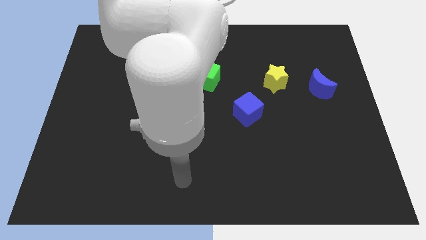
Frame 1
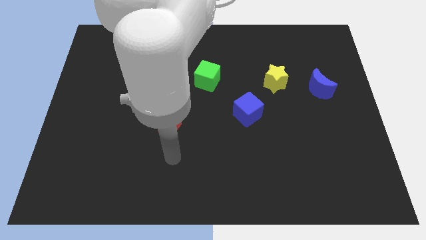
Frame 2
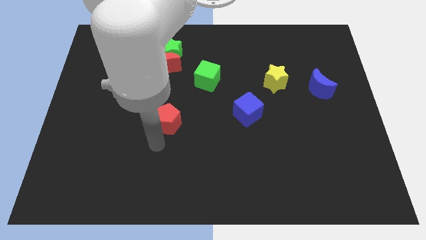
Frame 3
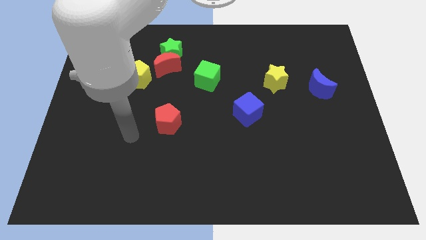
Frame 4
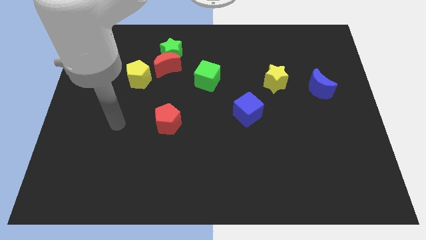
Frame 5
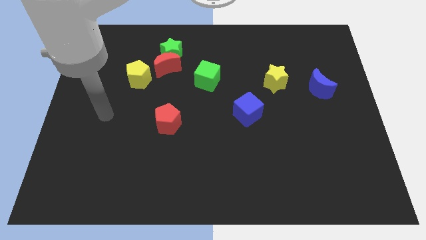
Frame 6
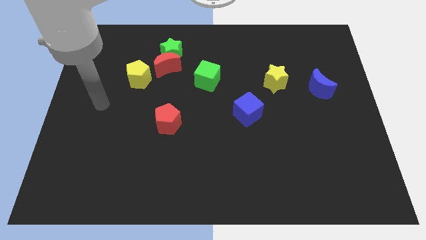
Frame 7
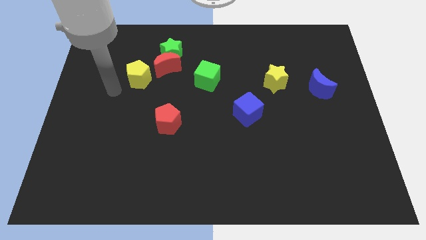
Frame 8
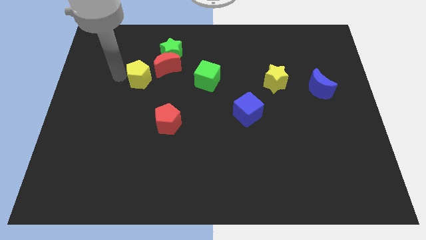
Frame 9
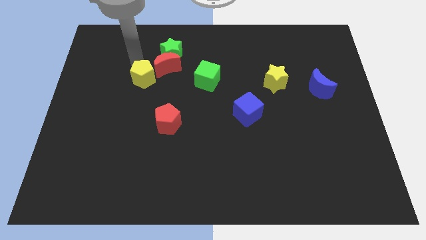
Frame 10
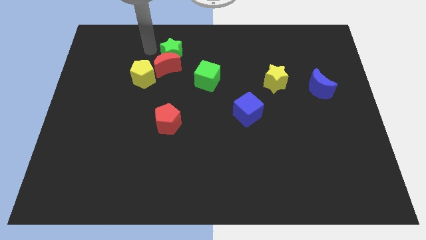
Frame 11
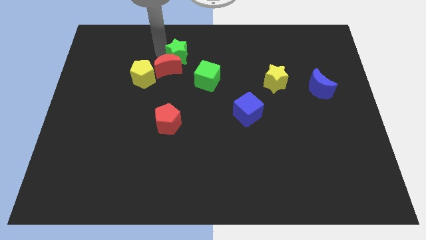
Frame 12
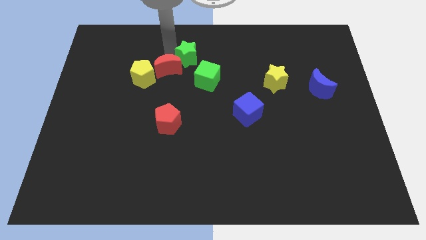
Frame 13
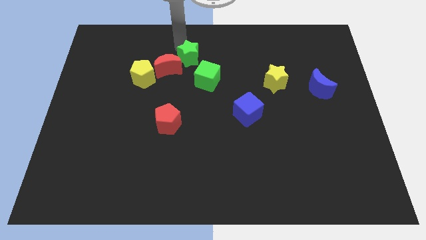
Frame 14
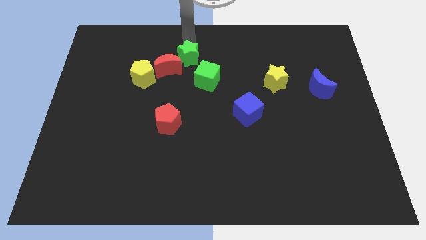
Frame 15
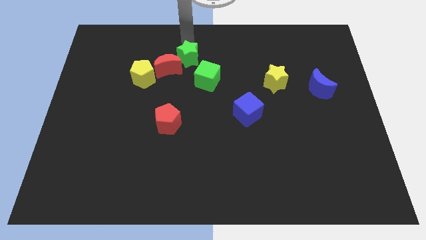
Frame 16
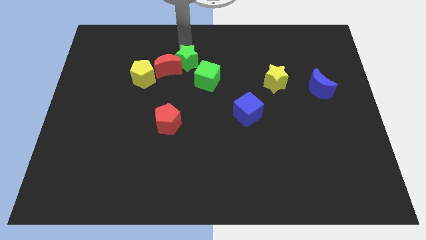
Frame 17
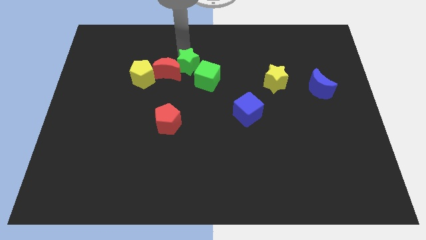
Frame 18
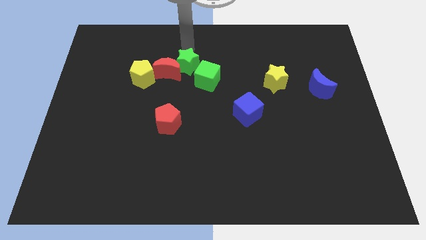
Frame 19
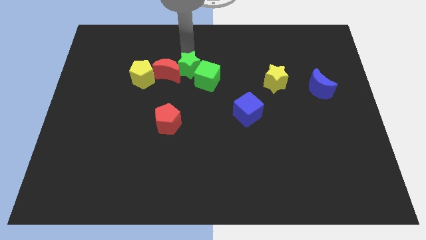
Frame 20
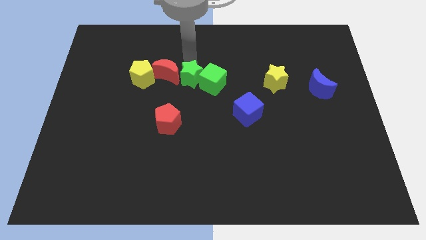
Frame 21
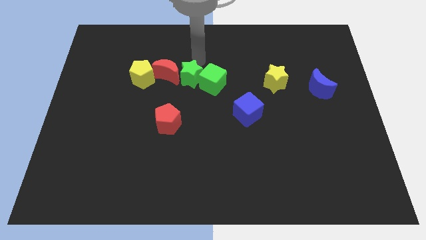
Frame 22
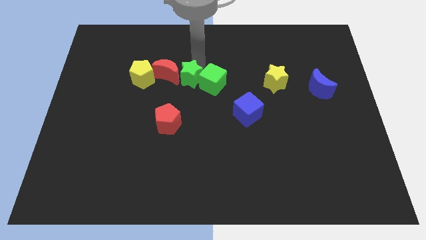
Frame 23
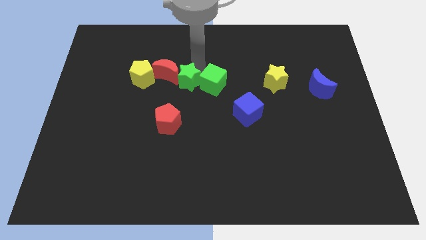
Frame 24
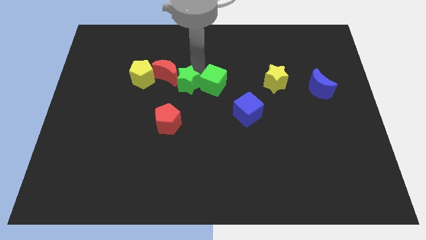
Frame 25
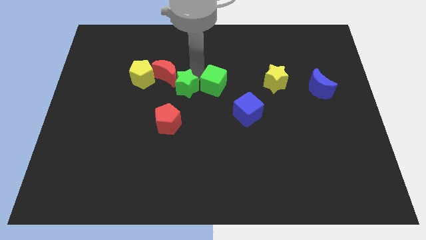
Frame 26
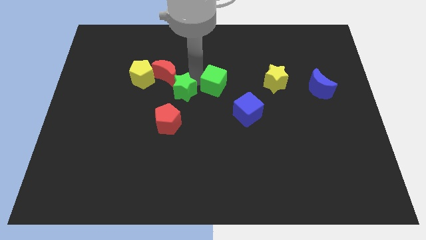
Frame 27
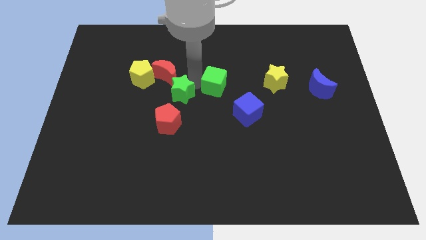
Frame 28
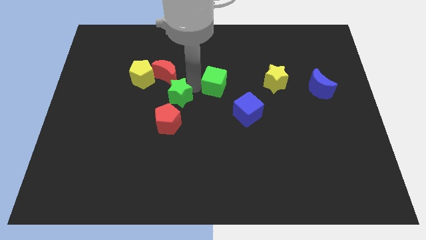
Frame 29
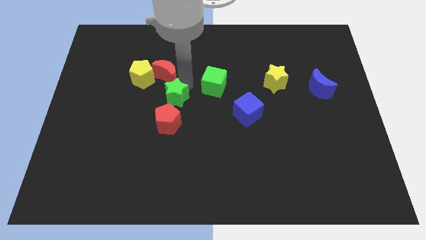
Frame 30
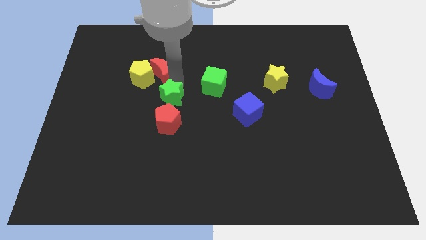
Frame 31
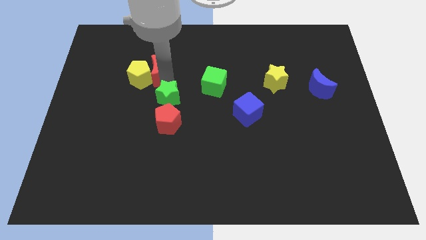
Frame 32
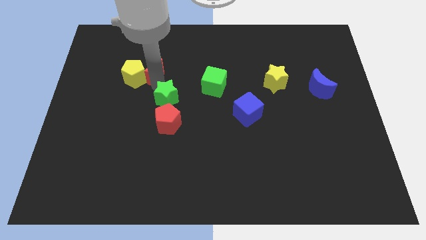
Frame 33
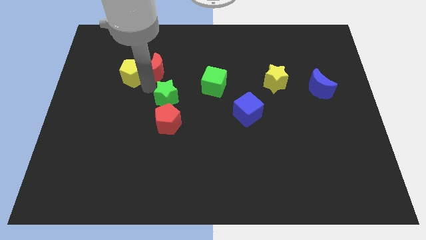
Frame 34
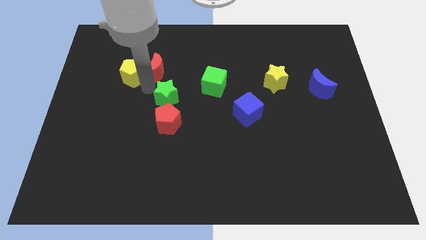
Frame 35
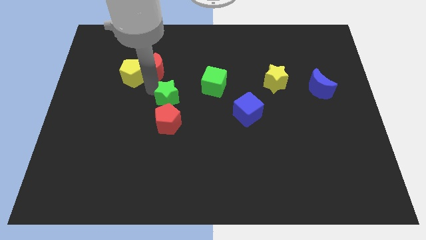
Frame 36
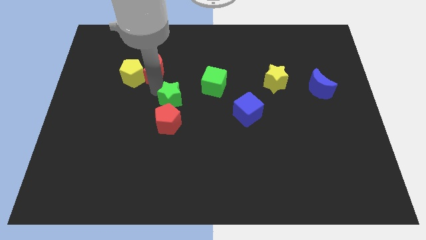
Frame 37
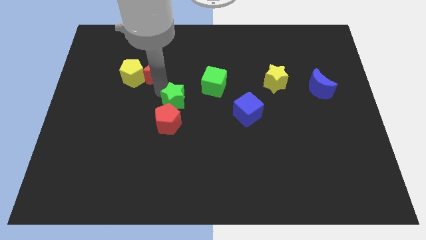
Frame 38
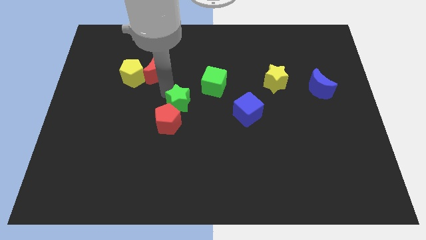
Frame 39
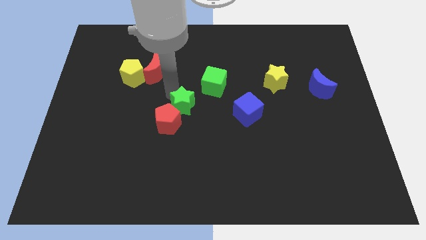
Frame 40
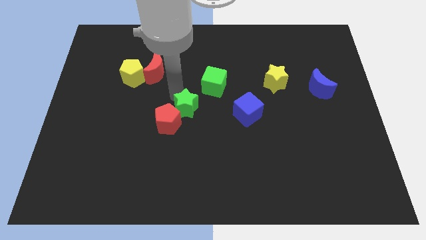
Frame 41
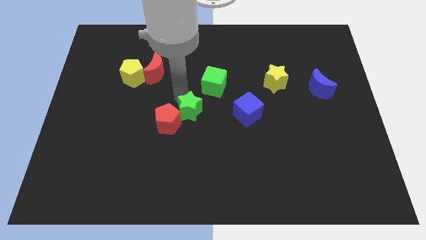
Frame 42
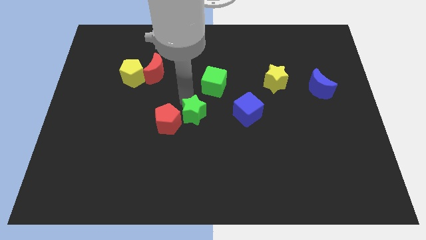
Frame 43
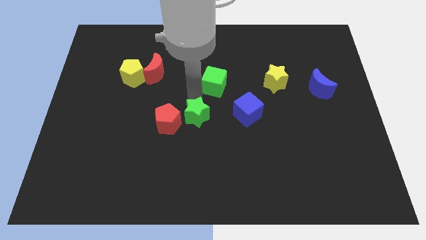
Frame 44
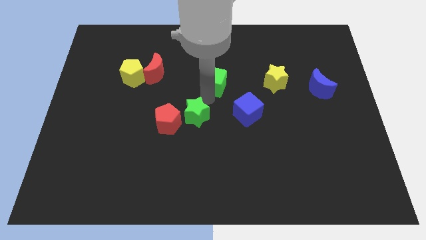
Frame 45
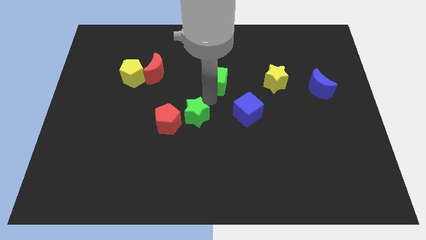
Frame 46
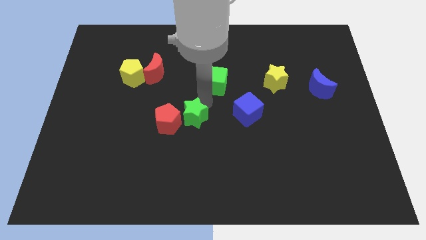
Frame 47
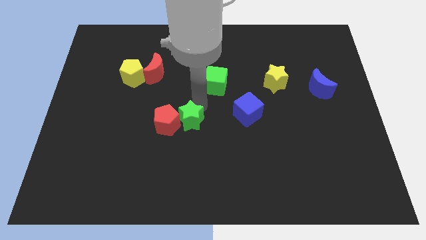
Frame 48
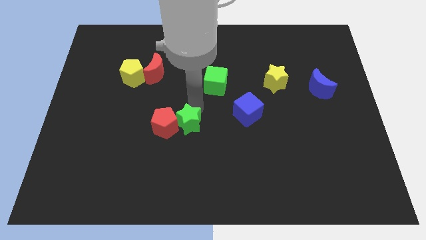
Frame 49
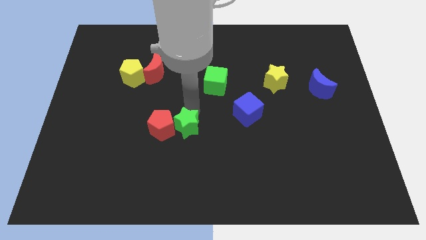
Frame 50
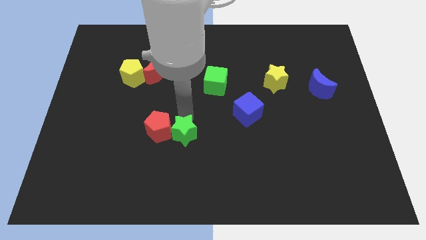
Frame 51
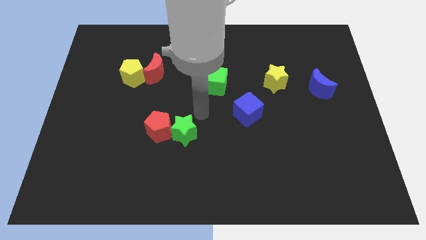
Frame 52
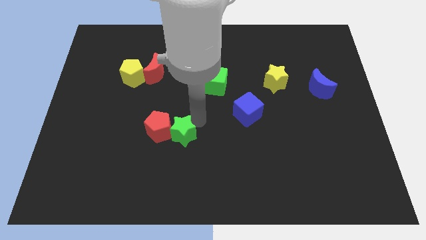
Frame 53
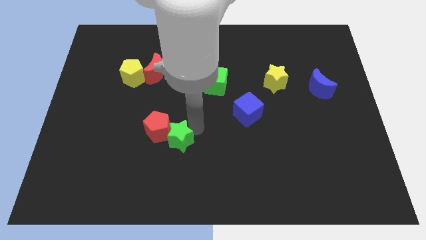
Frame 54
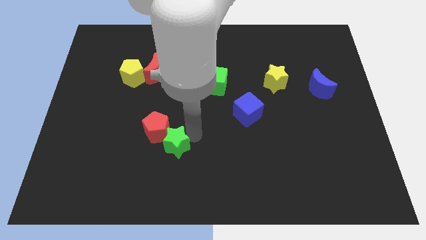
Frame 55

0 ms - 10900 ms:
push the green star to the bottom of the red pentagon

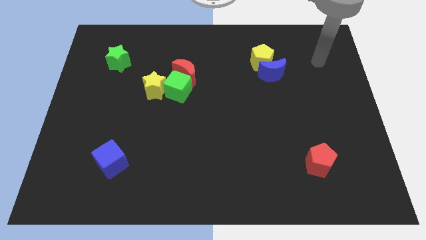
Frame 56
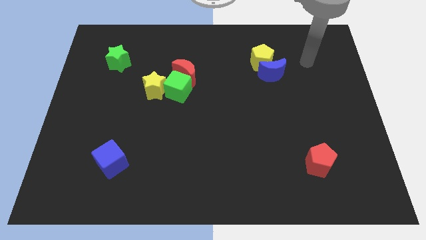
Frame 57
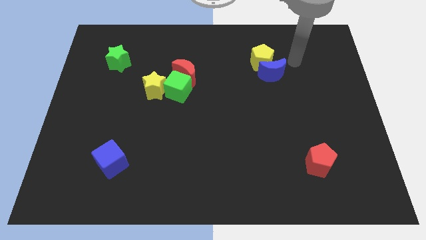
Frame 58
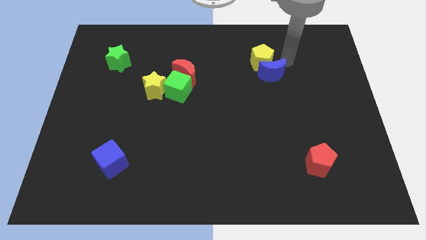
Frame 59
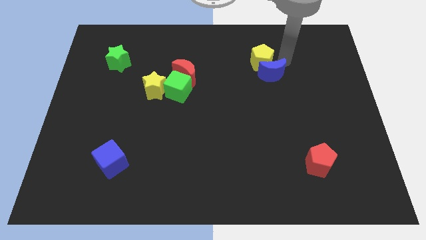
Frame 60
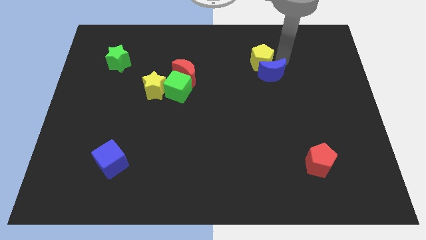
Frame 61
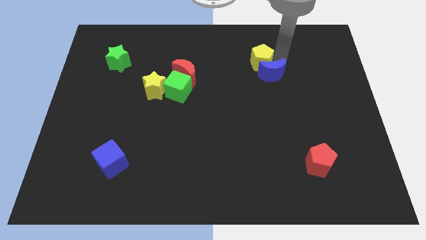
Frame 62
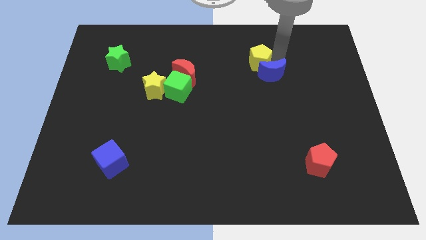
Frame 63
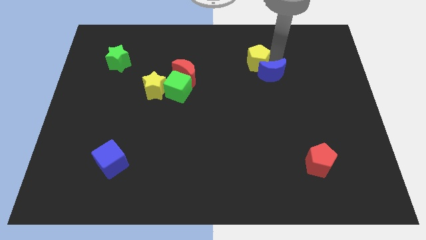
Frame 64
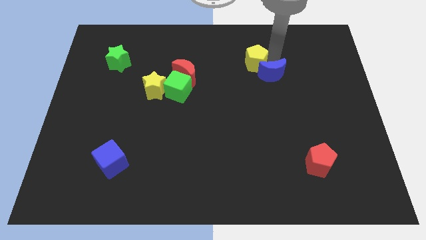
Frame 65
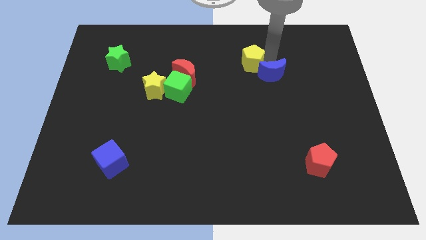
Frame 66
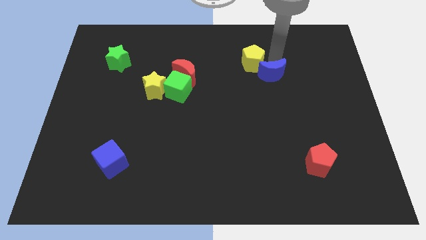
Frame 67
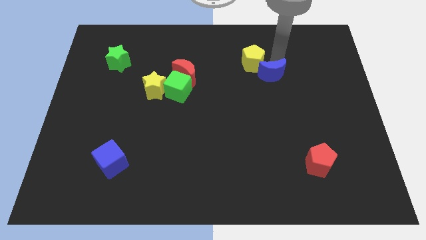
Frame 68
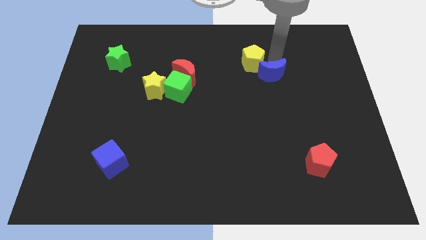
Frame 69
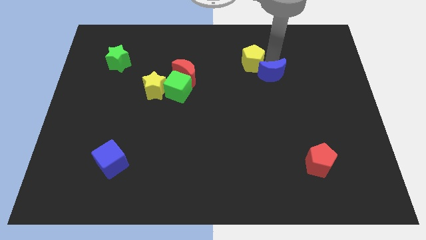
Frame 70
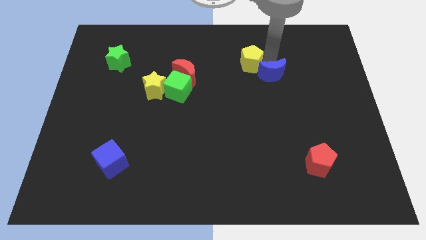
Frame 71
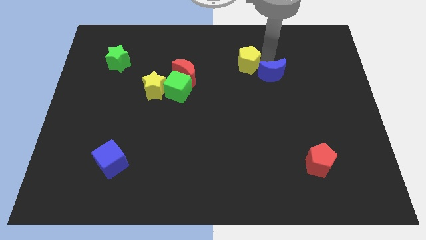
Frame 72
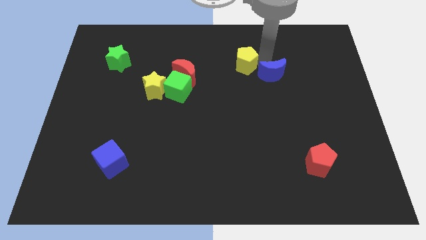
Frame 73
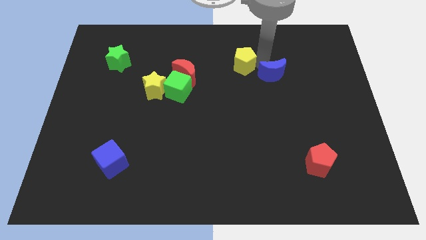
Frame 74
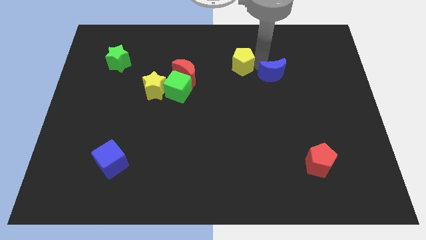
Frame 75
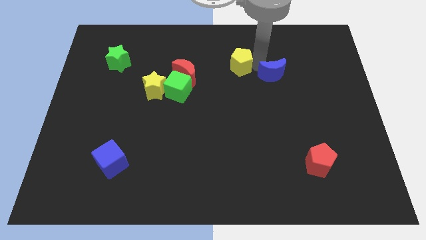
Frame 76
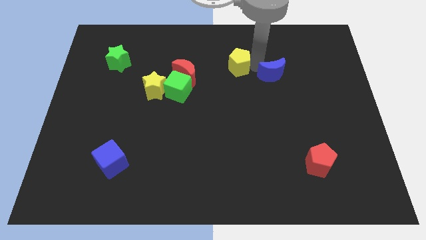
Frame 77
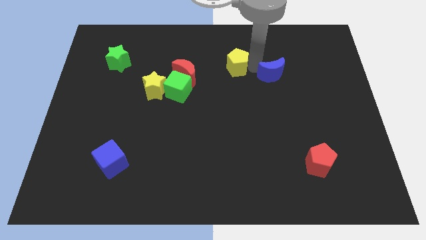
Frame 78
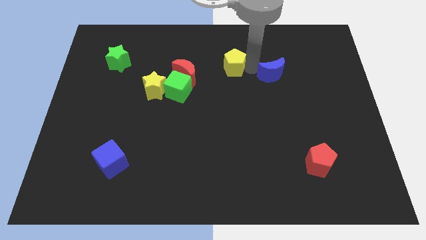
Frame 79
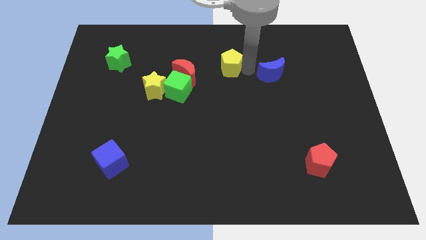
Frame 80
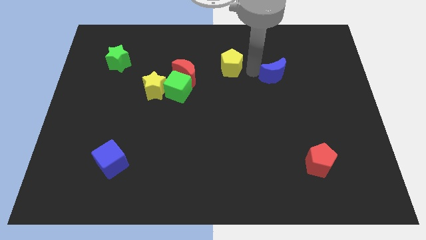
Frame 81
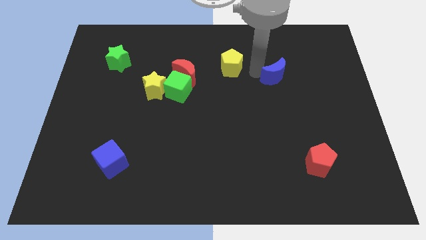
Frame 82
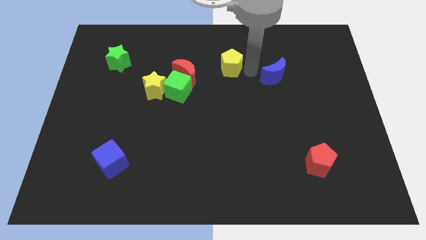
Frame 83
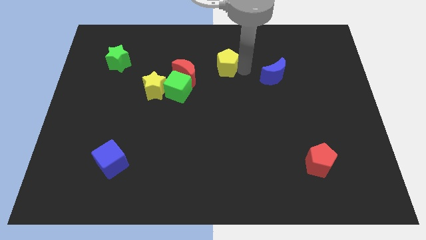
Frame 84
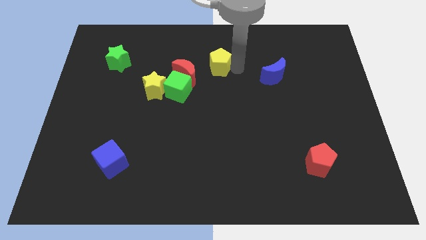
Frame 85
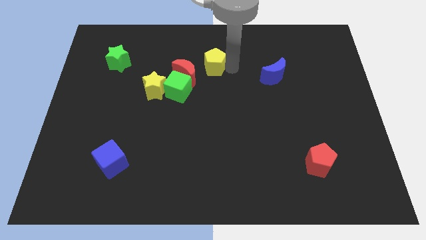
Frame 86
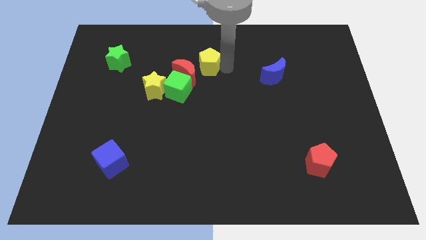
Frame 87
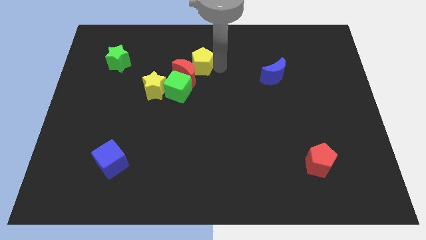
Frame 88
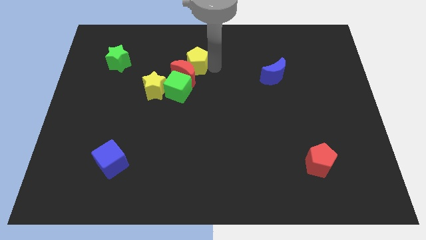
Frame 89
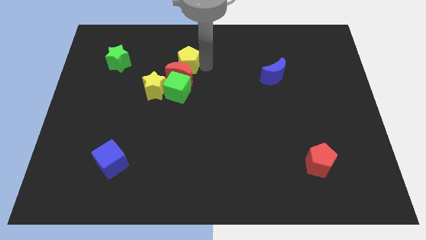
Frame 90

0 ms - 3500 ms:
put the yellow pentagon diagonally up and to the left of the red moon
